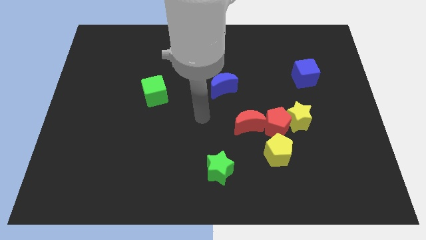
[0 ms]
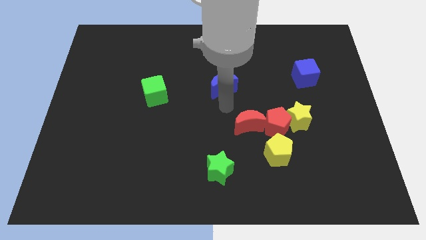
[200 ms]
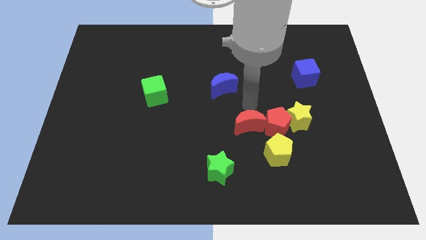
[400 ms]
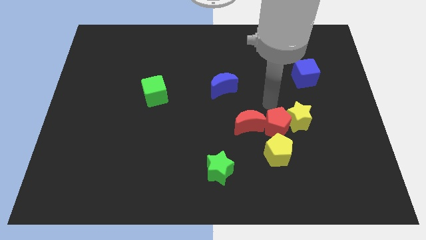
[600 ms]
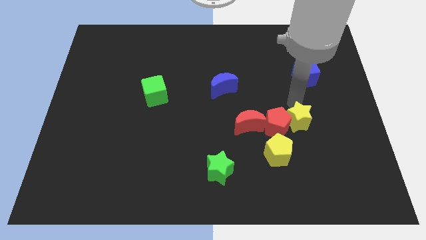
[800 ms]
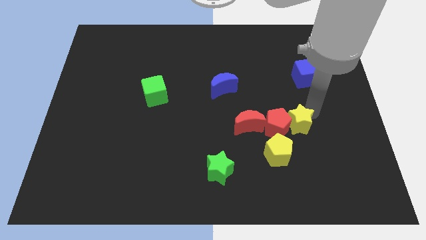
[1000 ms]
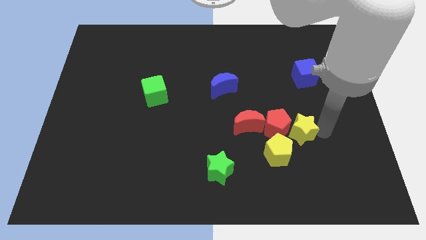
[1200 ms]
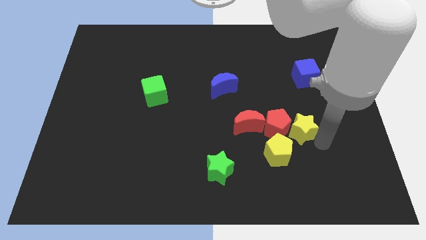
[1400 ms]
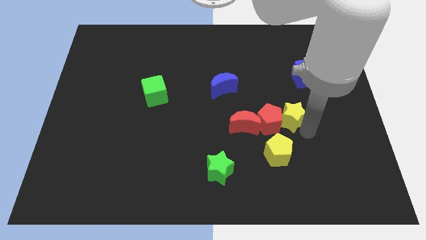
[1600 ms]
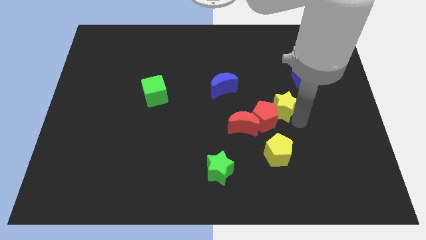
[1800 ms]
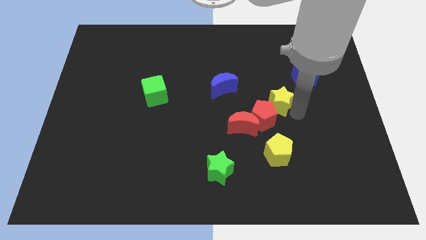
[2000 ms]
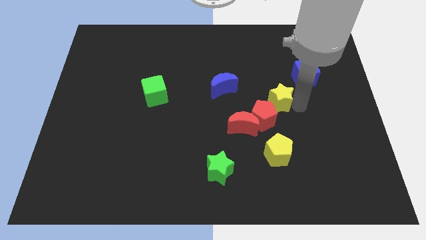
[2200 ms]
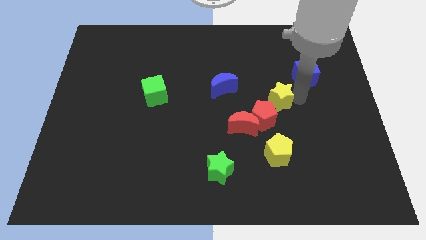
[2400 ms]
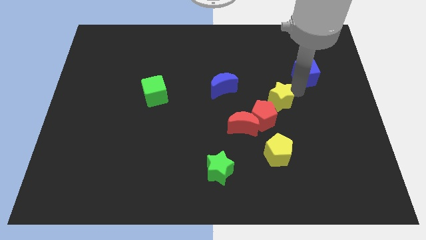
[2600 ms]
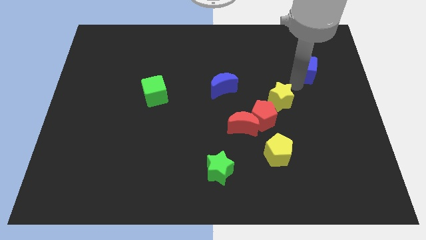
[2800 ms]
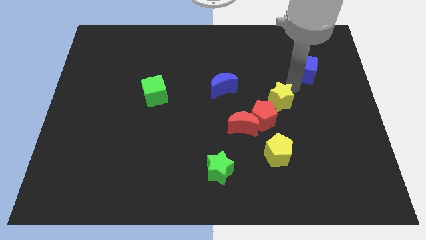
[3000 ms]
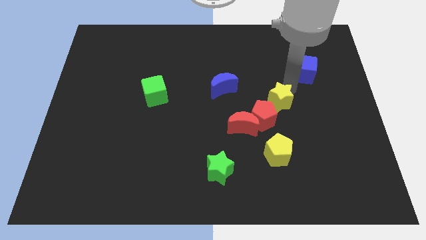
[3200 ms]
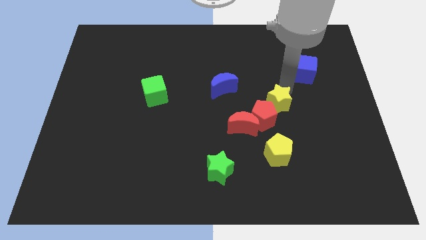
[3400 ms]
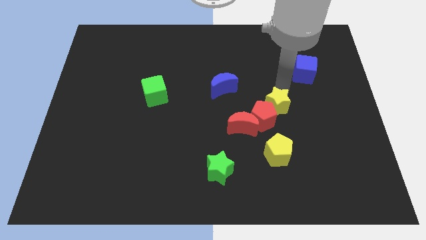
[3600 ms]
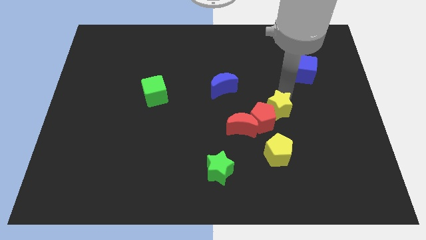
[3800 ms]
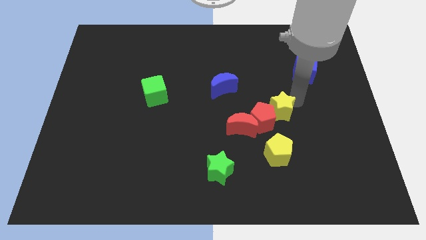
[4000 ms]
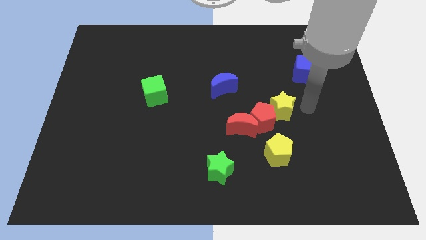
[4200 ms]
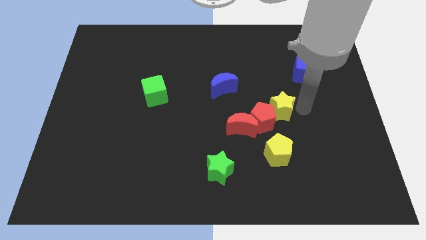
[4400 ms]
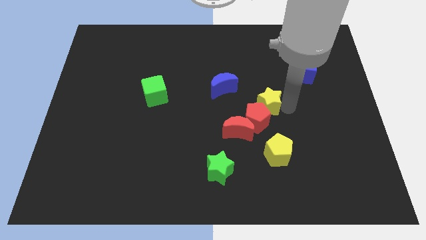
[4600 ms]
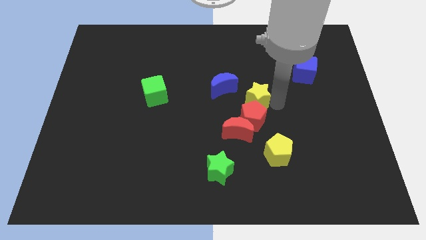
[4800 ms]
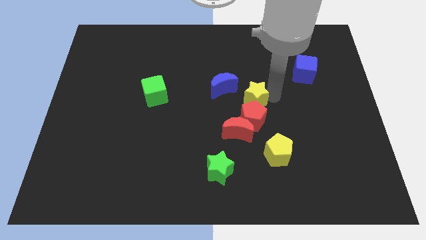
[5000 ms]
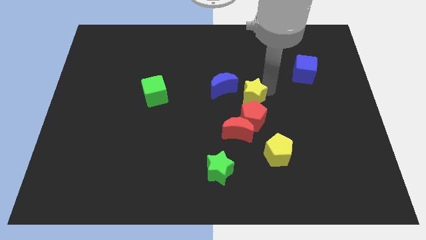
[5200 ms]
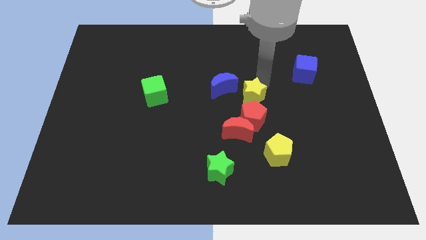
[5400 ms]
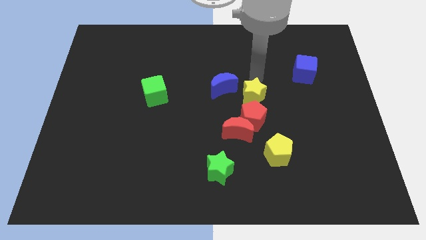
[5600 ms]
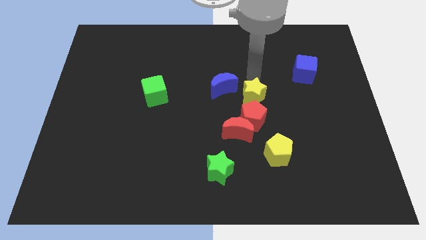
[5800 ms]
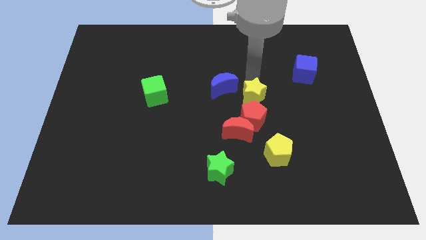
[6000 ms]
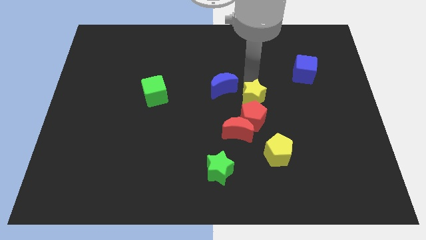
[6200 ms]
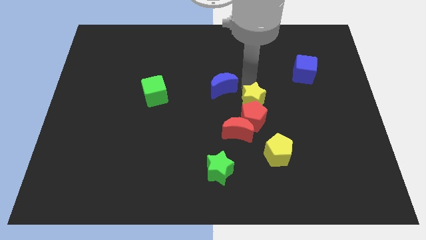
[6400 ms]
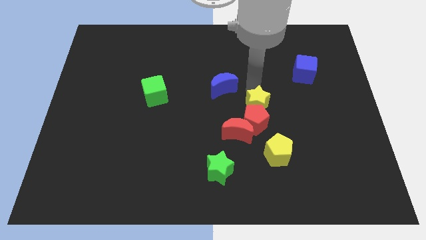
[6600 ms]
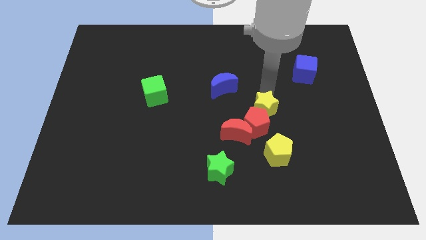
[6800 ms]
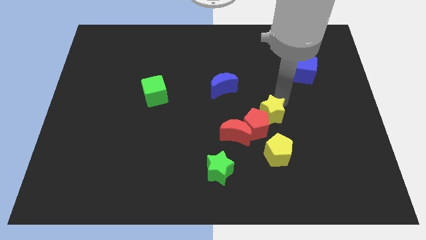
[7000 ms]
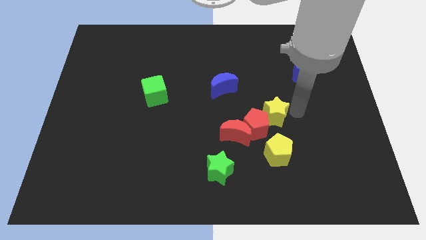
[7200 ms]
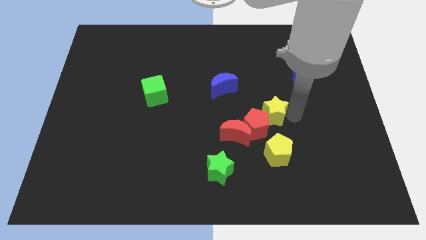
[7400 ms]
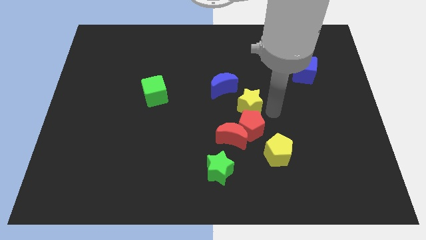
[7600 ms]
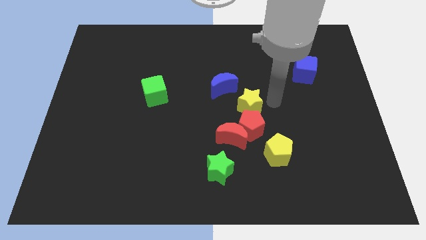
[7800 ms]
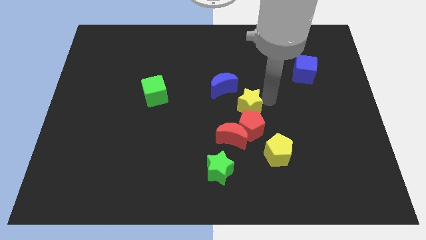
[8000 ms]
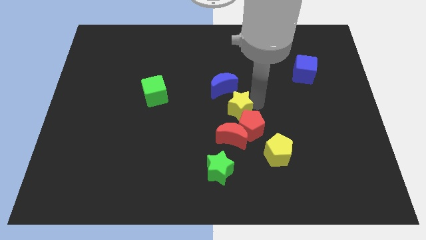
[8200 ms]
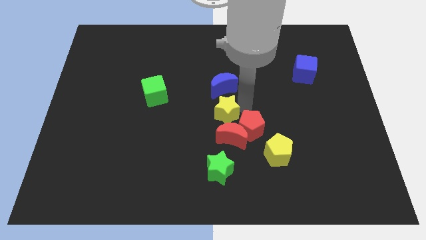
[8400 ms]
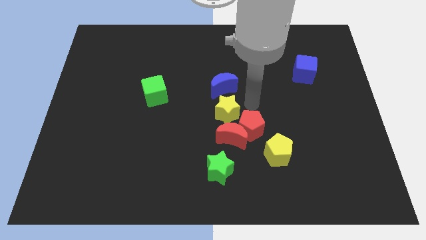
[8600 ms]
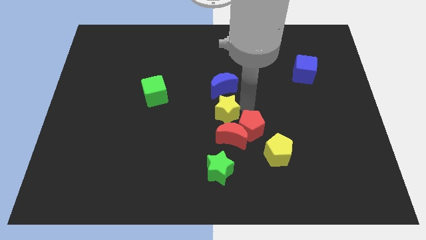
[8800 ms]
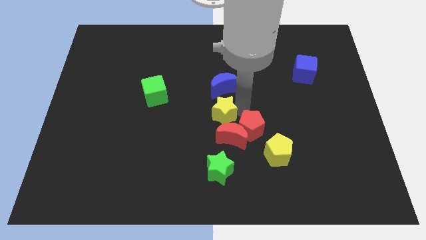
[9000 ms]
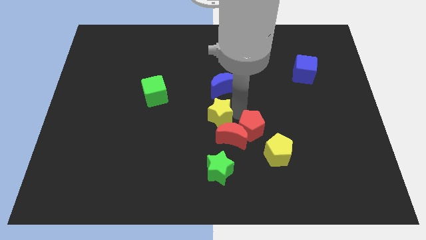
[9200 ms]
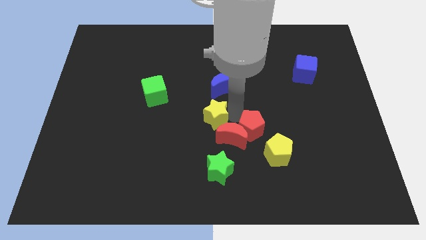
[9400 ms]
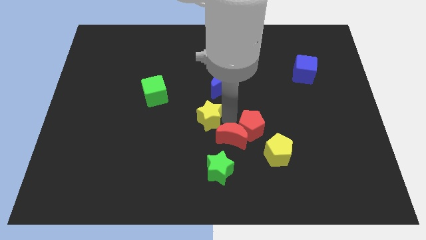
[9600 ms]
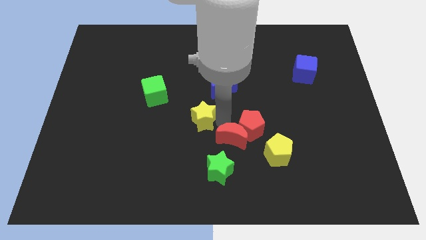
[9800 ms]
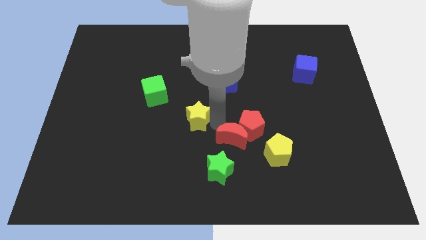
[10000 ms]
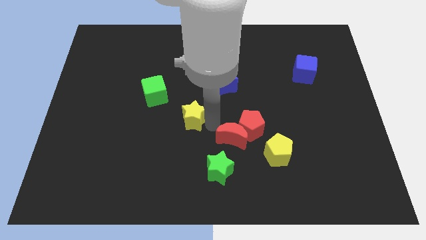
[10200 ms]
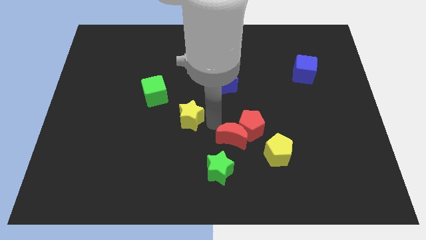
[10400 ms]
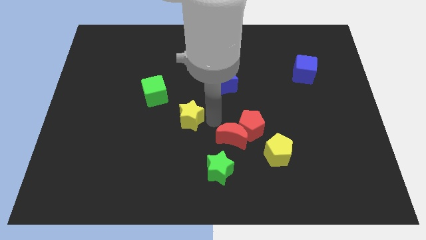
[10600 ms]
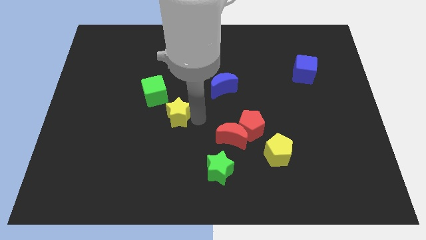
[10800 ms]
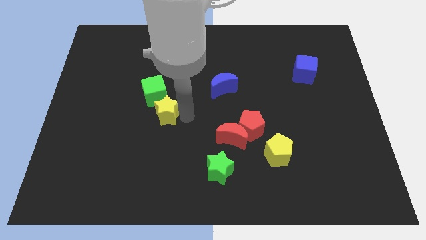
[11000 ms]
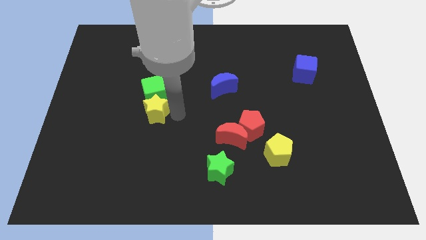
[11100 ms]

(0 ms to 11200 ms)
slide the yellow star to the bottom left side of the green cube

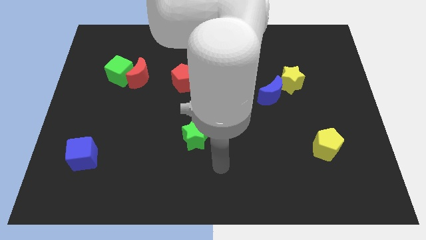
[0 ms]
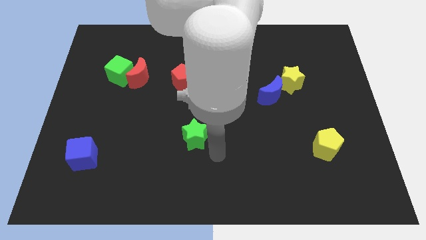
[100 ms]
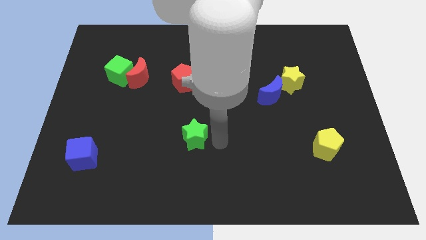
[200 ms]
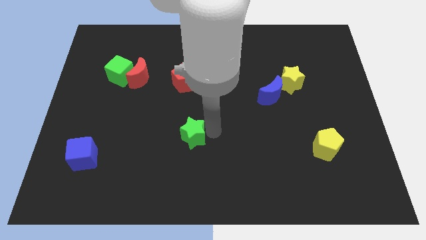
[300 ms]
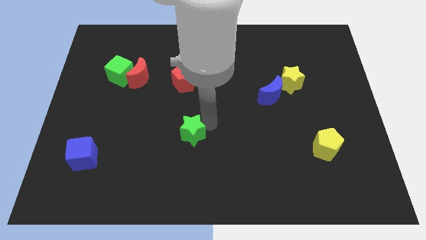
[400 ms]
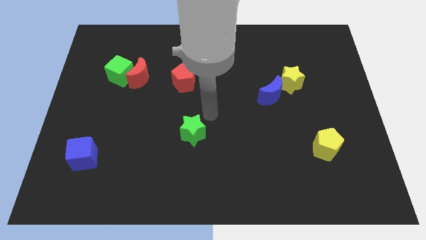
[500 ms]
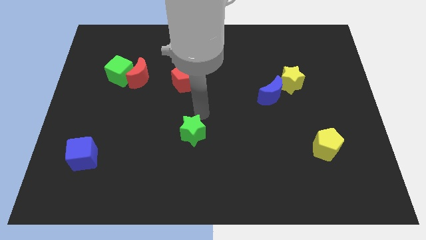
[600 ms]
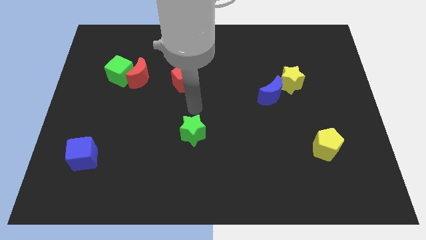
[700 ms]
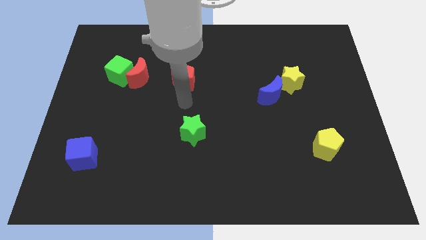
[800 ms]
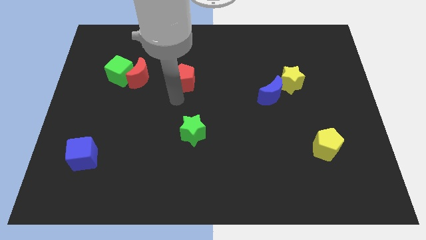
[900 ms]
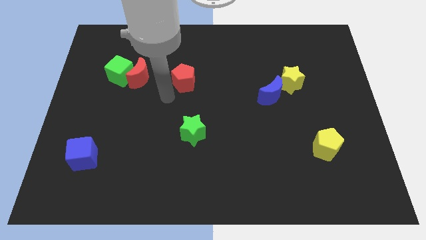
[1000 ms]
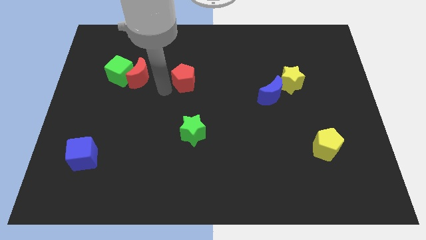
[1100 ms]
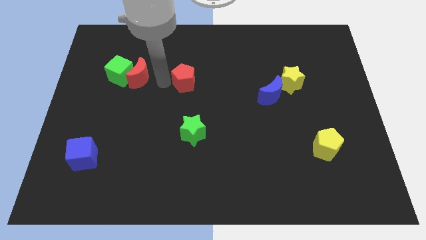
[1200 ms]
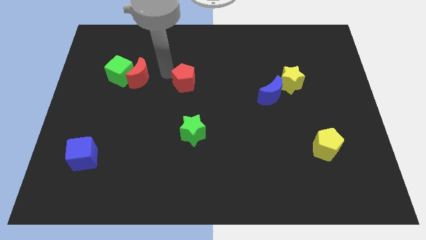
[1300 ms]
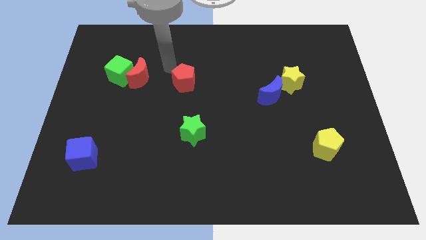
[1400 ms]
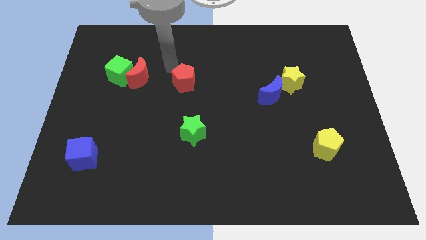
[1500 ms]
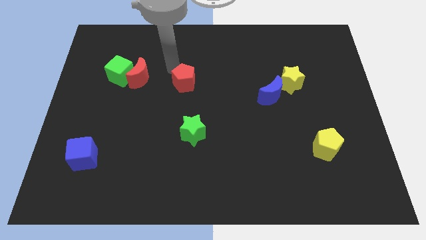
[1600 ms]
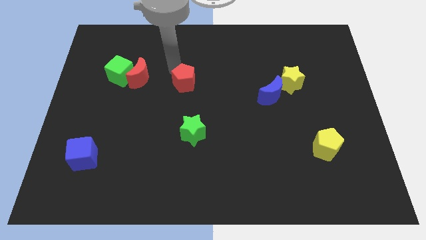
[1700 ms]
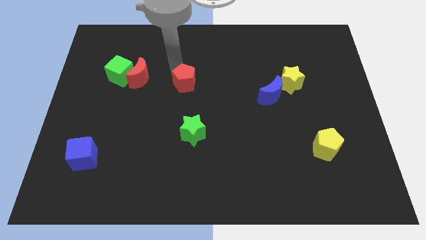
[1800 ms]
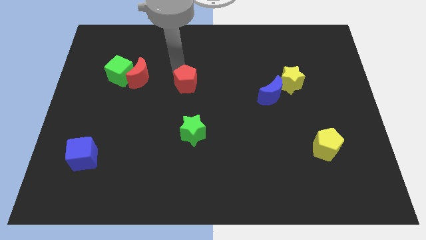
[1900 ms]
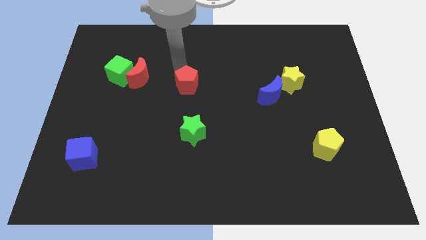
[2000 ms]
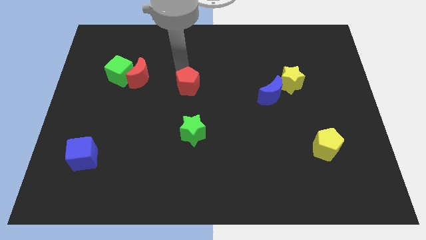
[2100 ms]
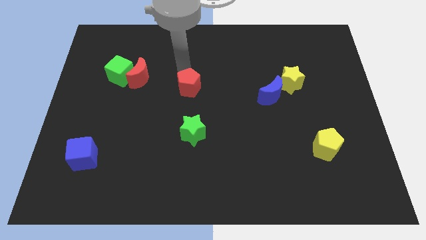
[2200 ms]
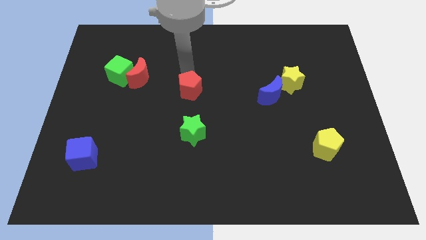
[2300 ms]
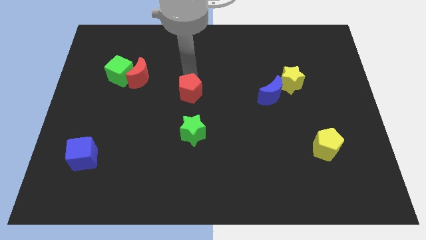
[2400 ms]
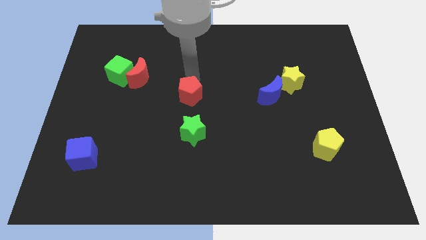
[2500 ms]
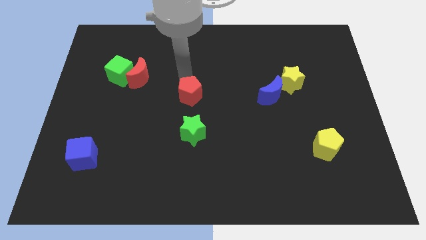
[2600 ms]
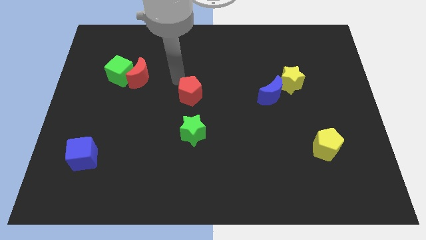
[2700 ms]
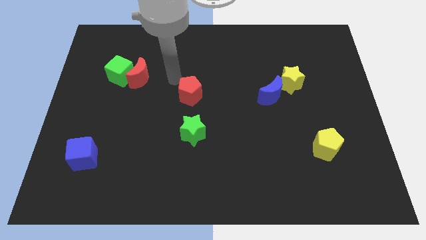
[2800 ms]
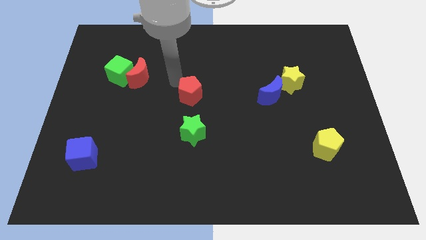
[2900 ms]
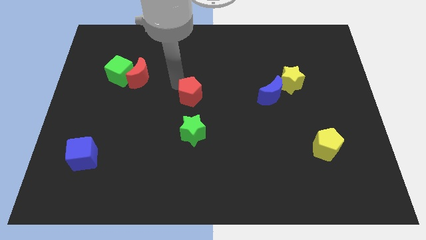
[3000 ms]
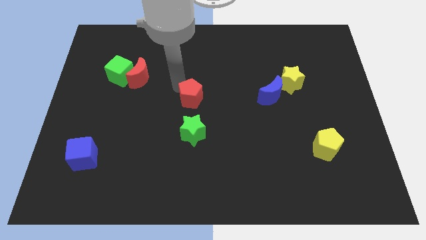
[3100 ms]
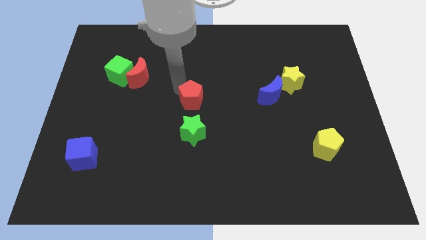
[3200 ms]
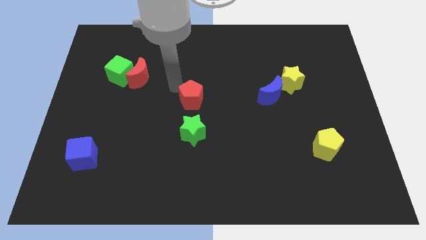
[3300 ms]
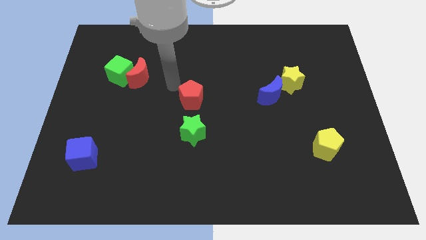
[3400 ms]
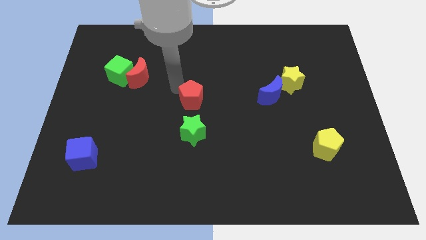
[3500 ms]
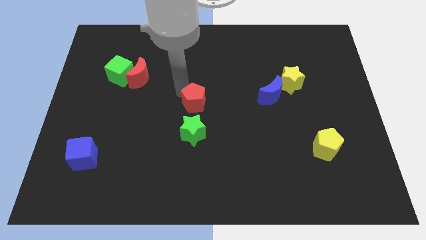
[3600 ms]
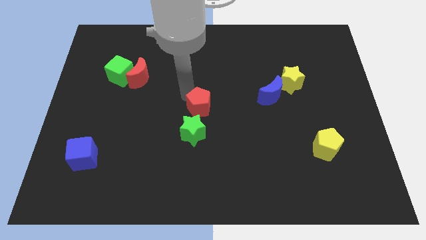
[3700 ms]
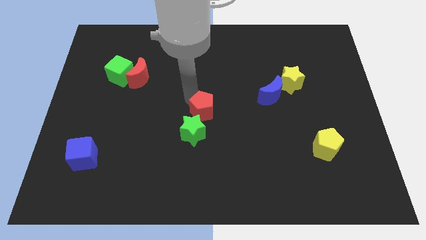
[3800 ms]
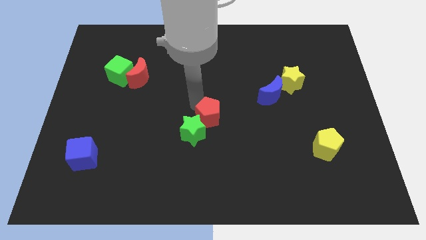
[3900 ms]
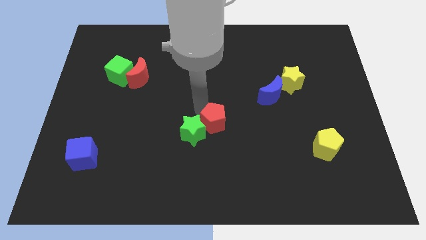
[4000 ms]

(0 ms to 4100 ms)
move the red pentagon just right of the green star
